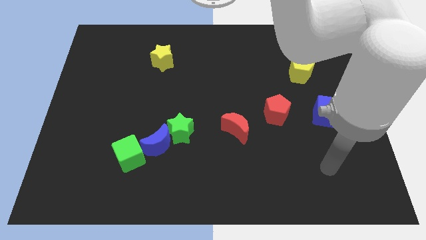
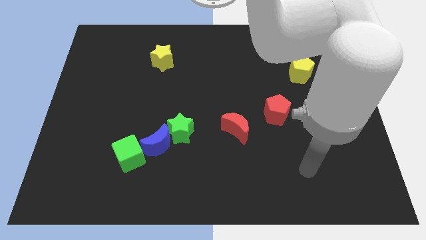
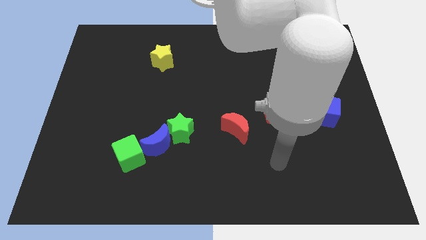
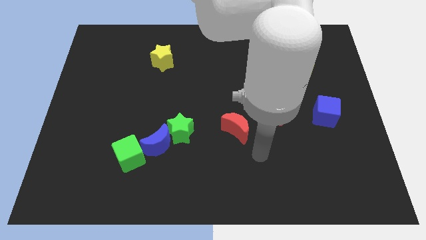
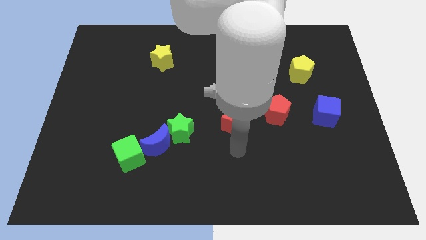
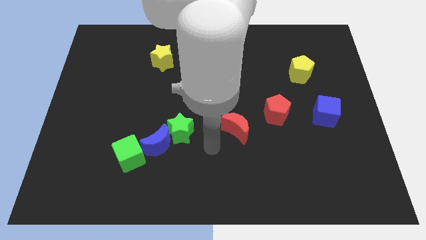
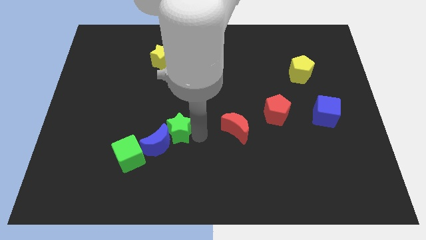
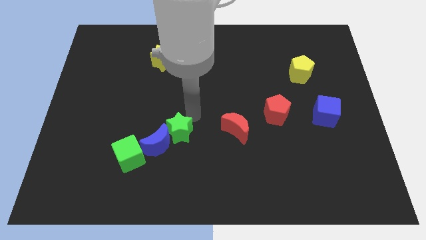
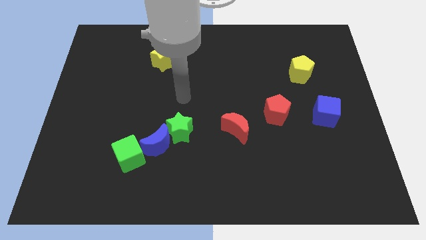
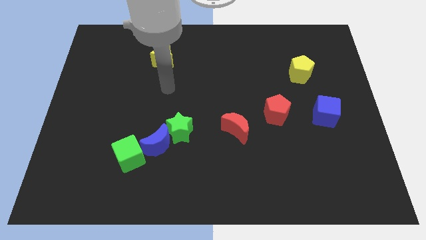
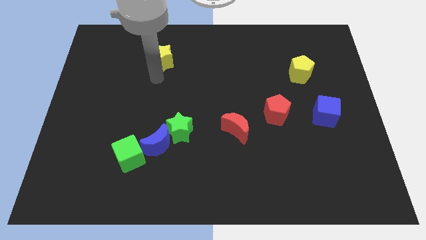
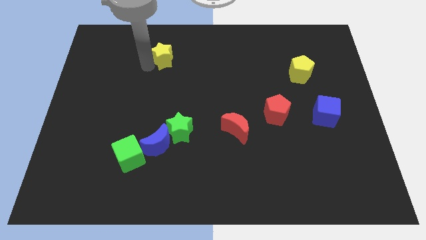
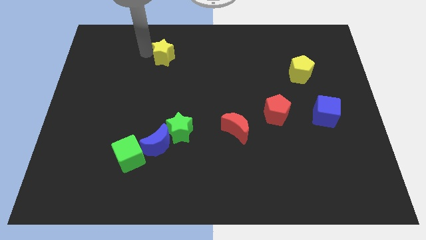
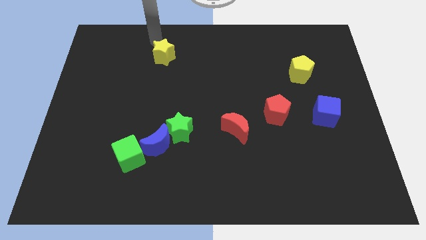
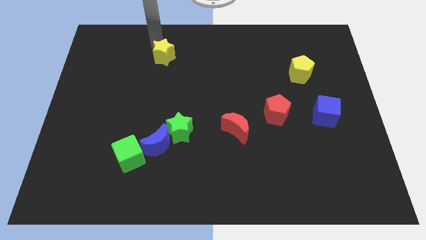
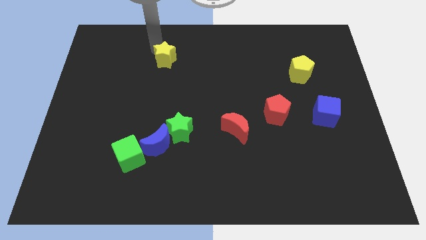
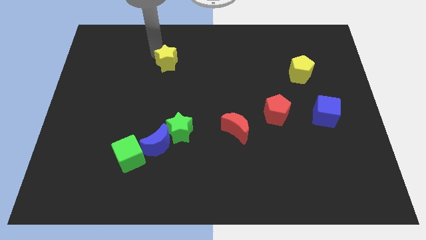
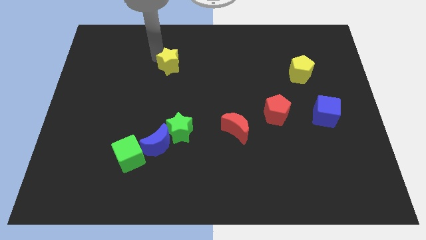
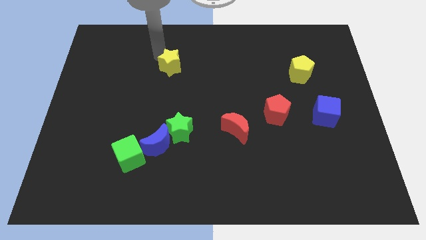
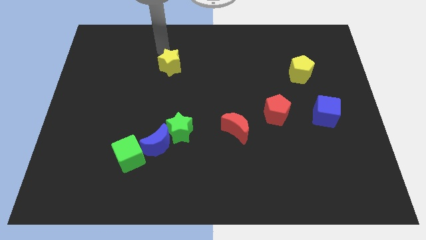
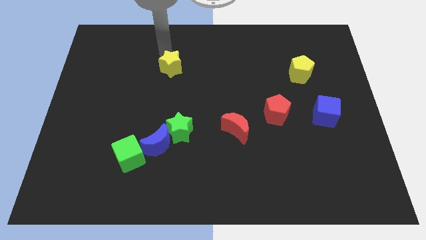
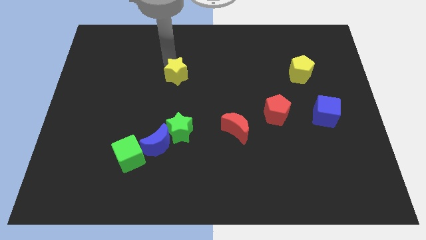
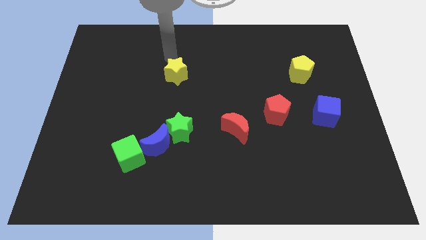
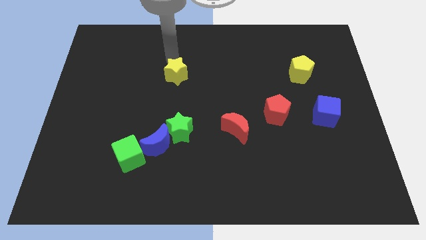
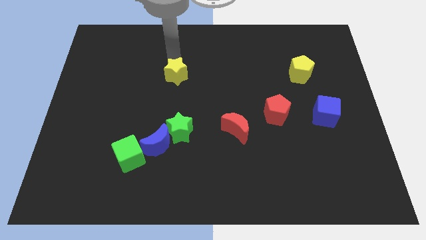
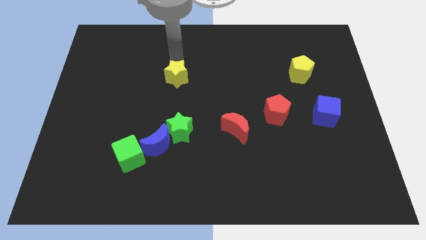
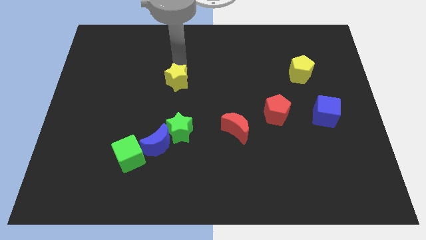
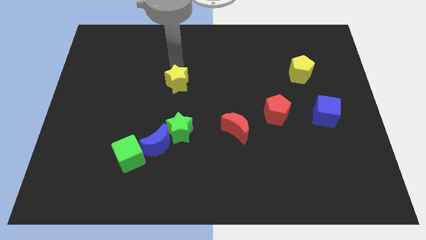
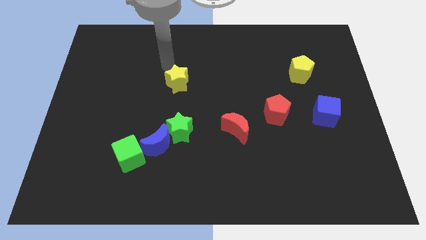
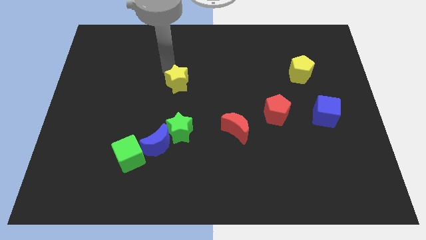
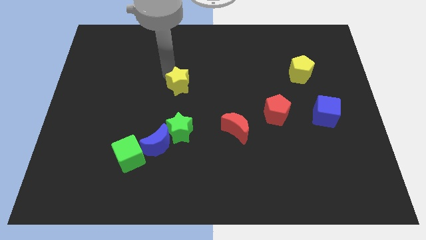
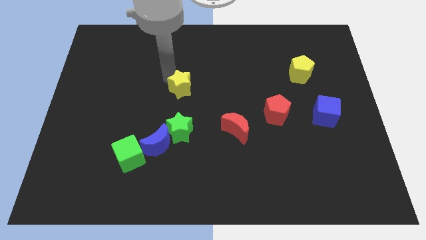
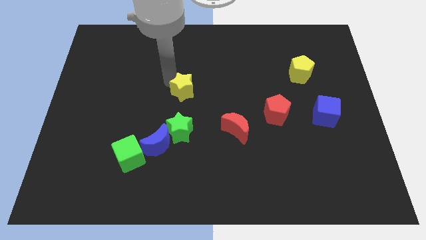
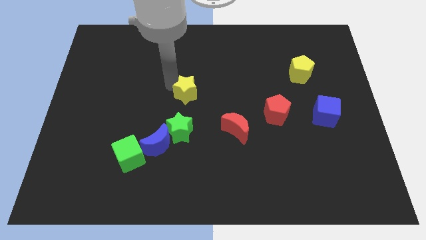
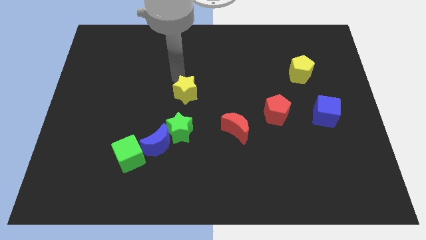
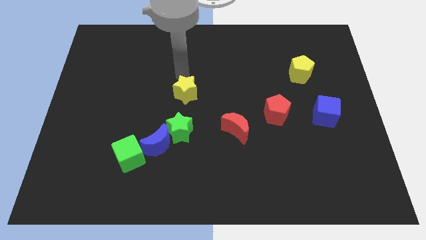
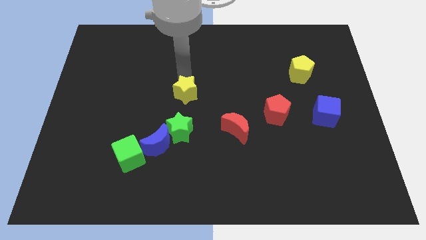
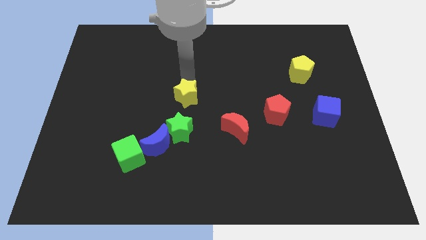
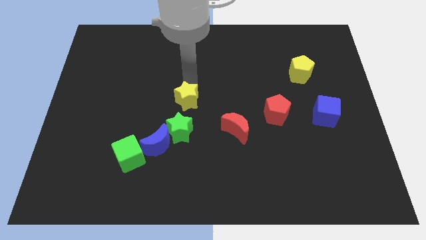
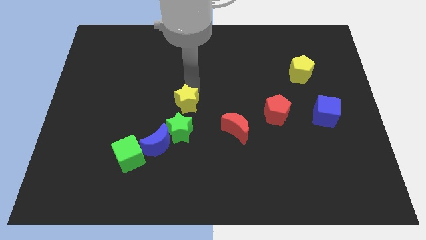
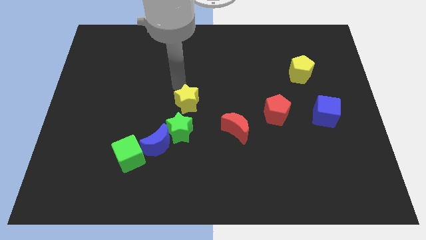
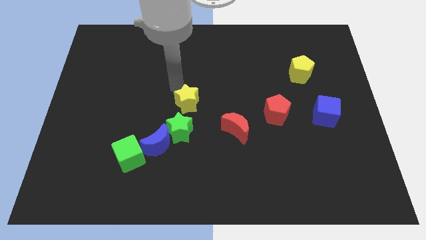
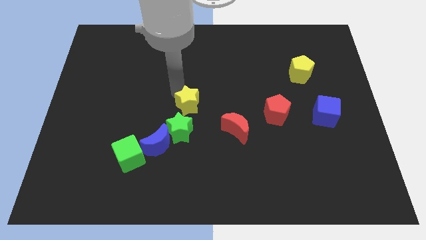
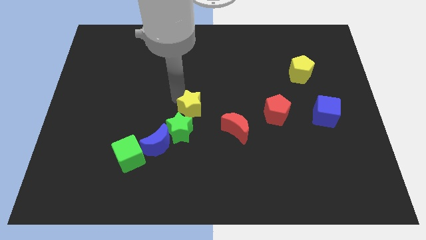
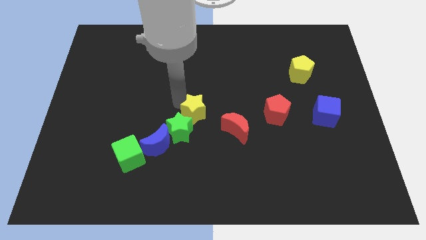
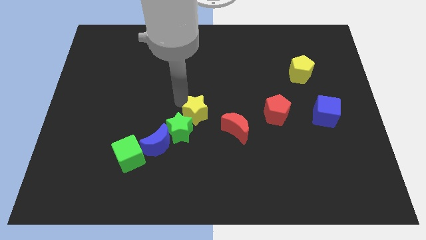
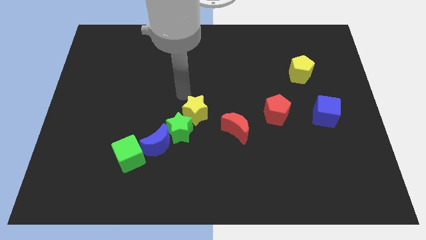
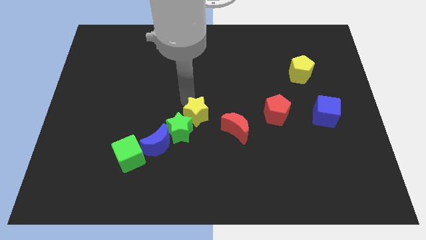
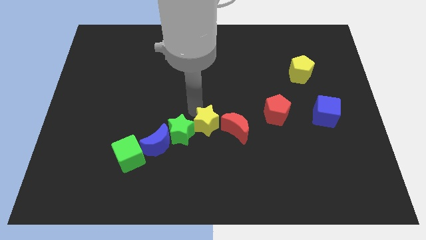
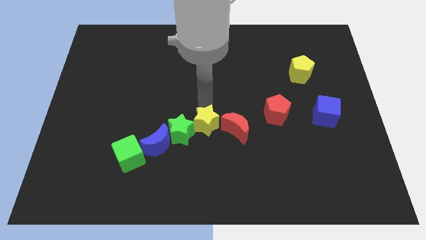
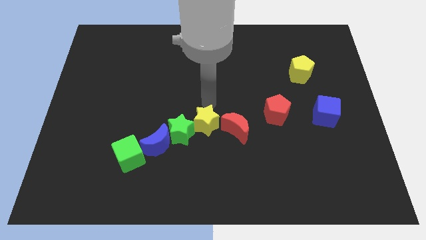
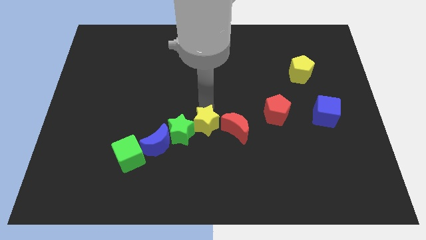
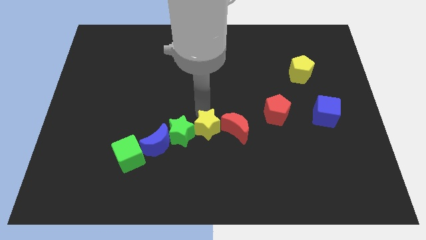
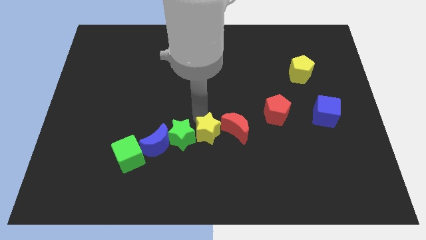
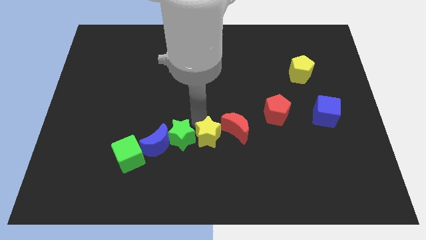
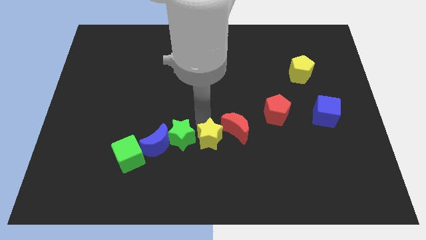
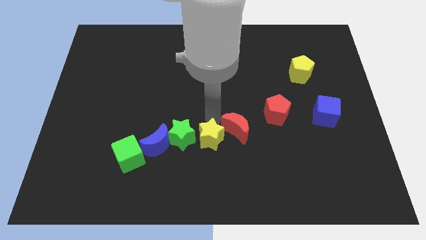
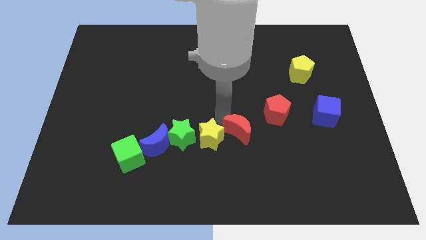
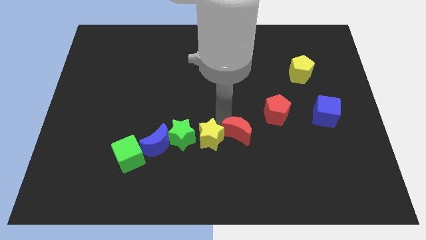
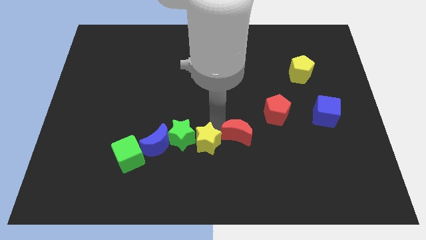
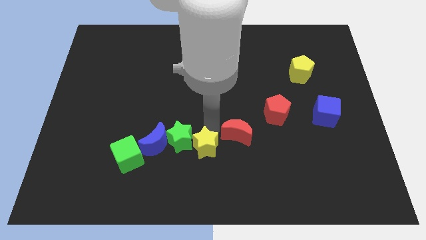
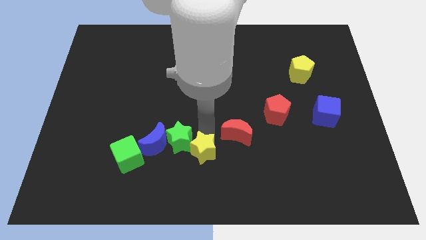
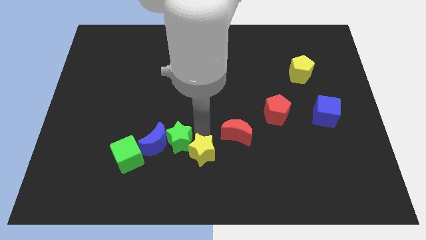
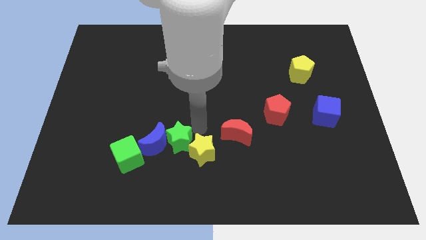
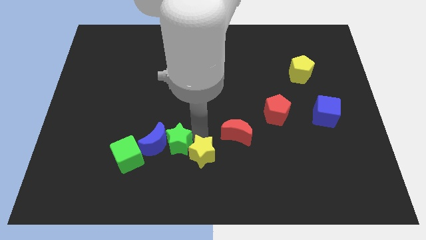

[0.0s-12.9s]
slide the yellow star to the bottom side

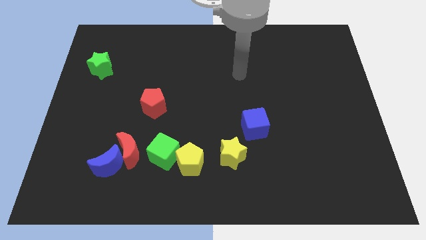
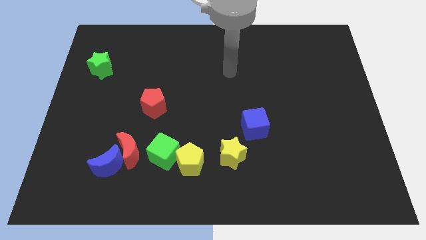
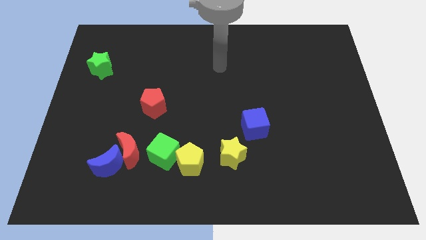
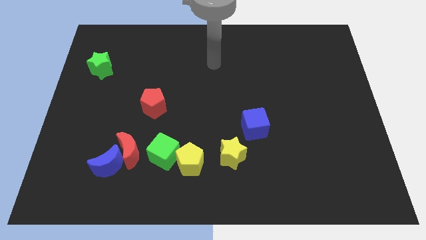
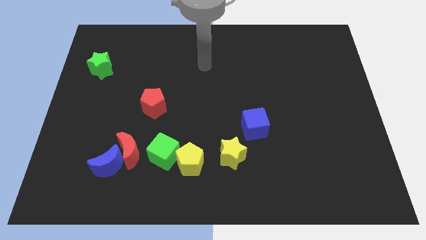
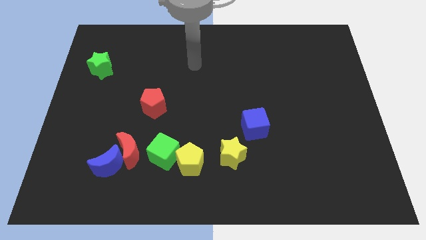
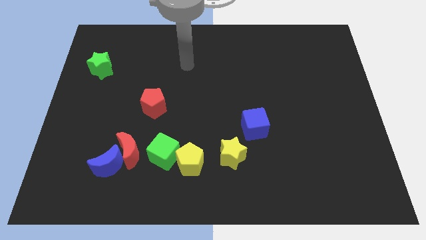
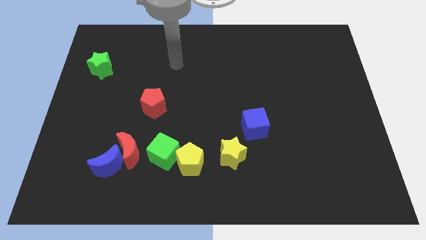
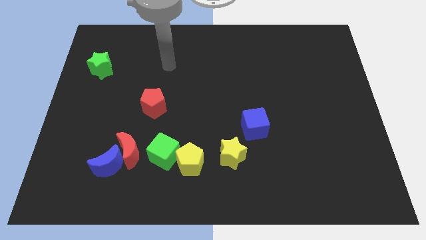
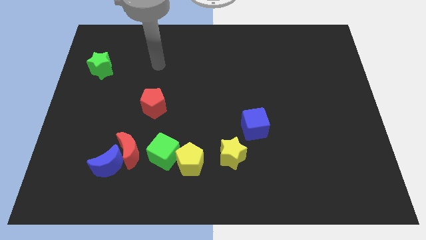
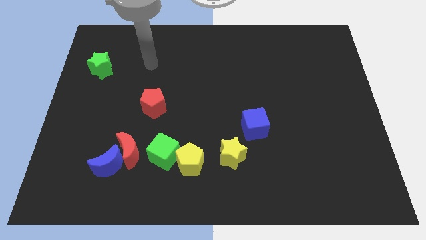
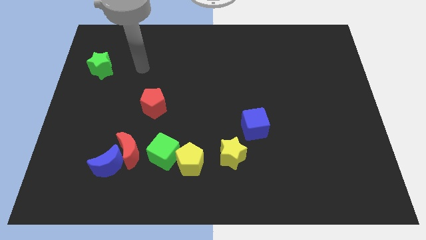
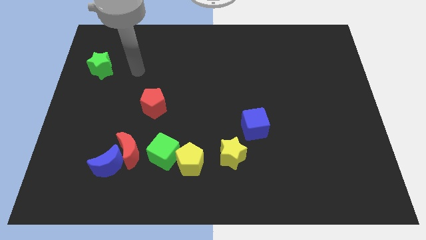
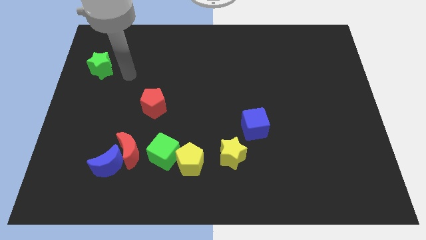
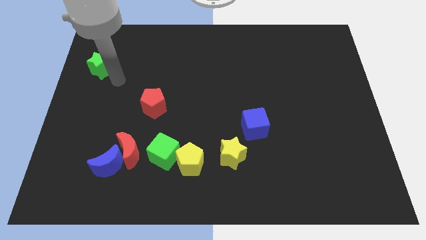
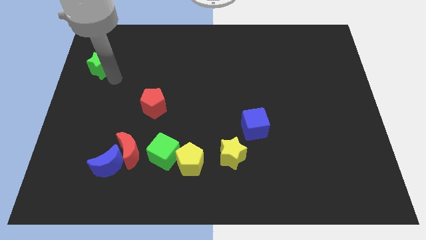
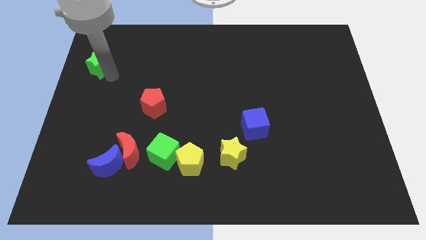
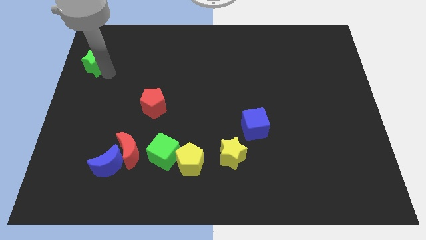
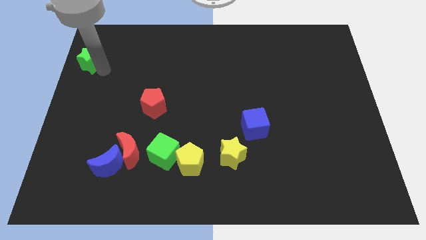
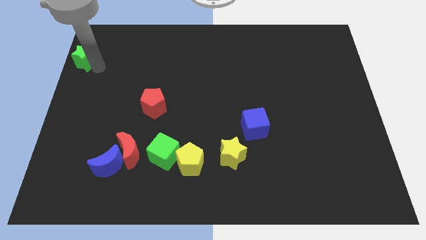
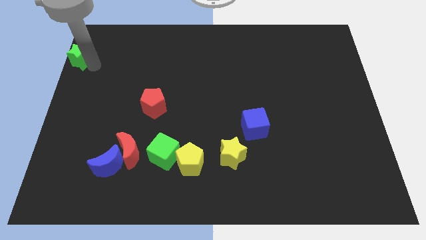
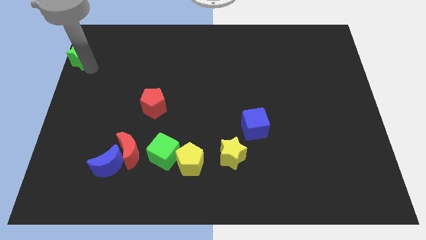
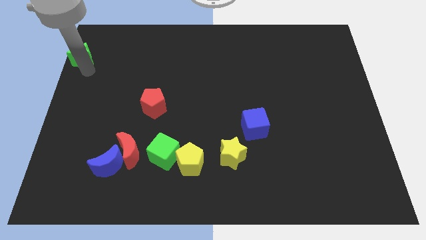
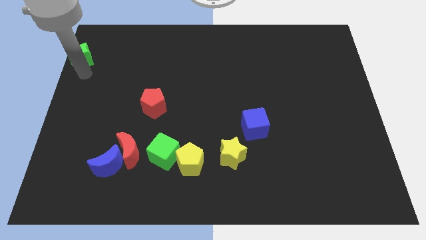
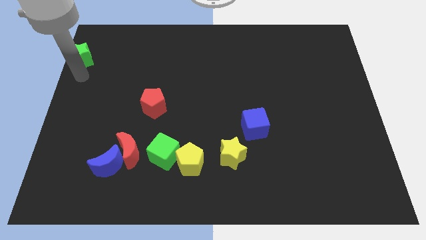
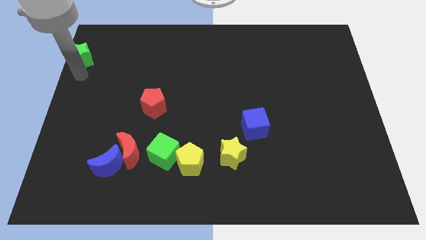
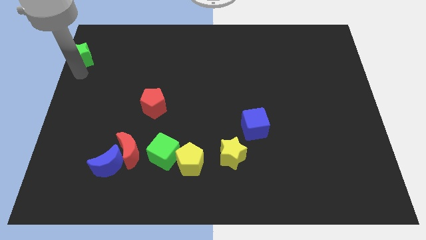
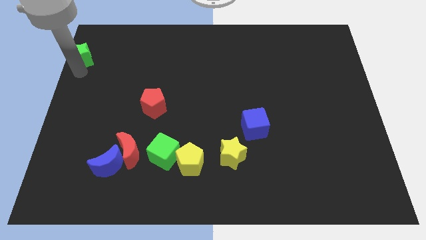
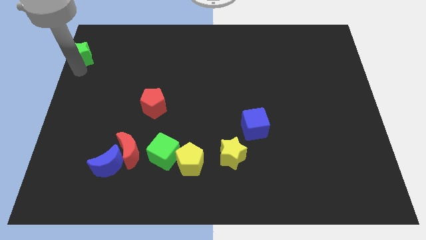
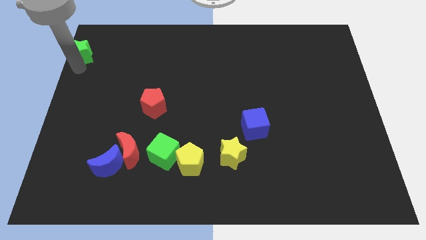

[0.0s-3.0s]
push the green star to the top left
